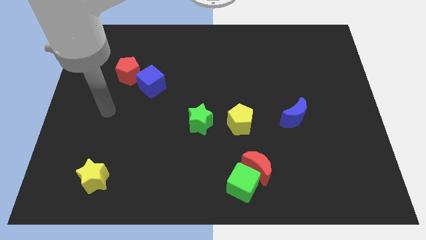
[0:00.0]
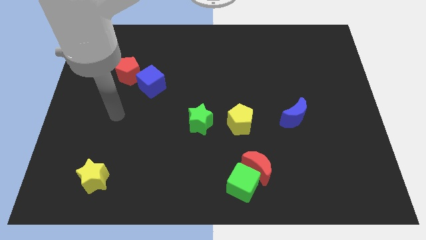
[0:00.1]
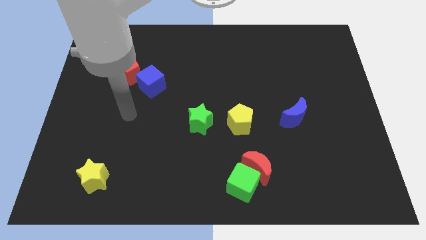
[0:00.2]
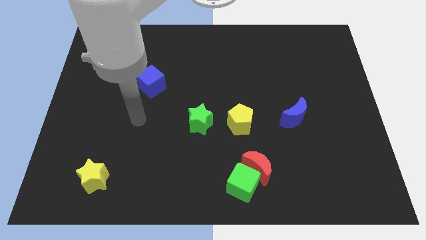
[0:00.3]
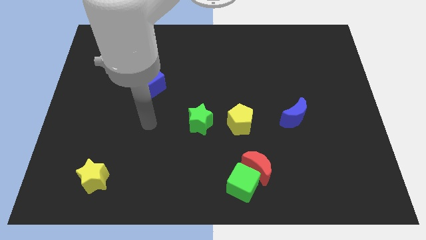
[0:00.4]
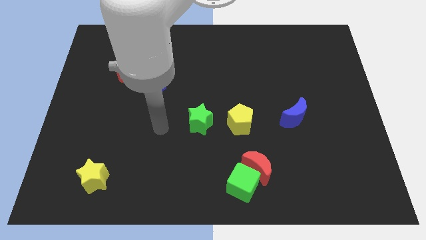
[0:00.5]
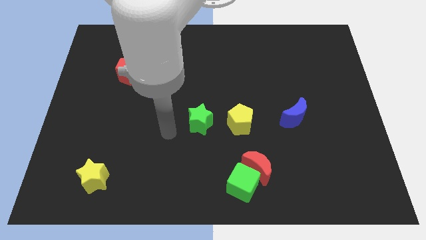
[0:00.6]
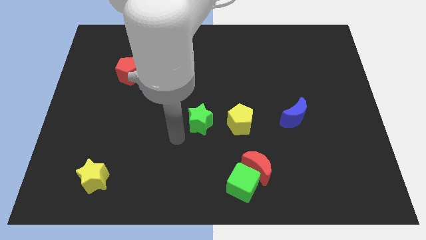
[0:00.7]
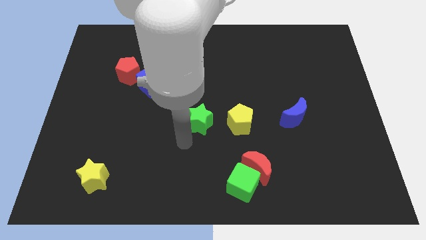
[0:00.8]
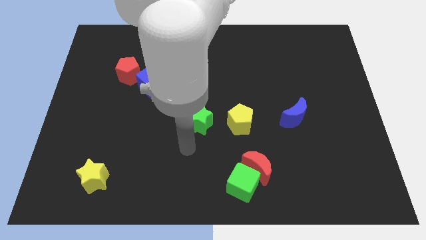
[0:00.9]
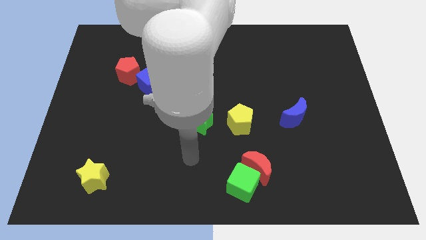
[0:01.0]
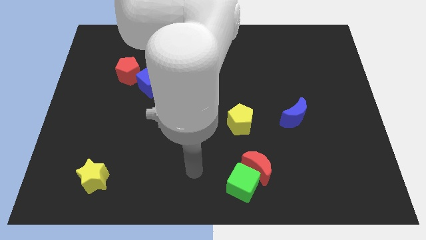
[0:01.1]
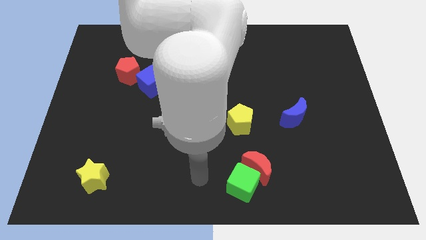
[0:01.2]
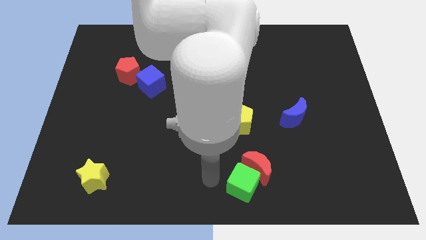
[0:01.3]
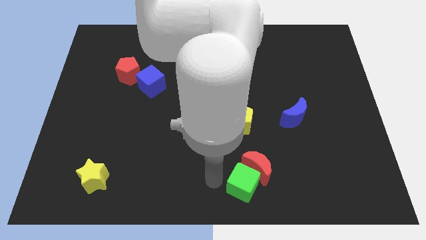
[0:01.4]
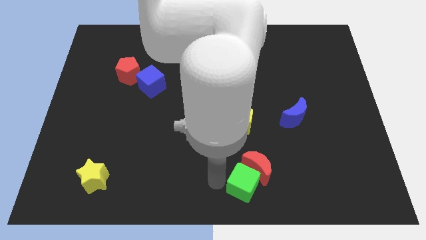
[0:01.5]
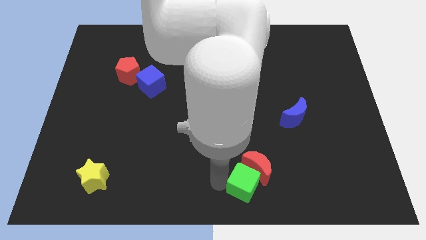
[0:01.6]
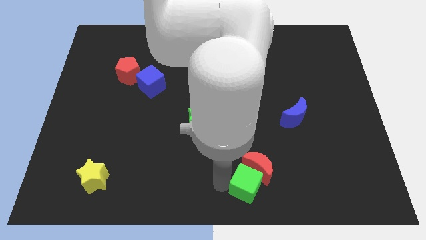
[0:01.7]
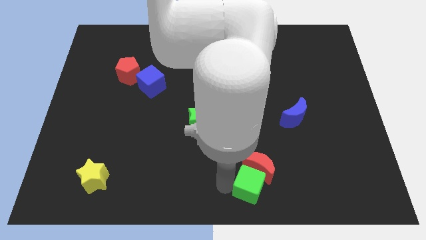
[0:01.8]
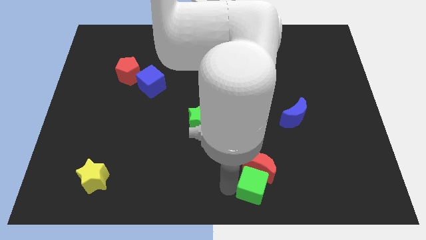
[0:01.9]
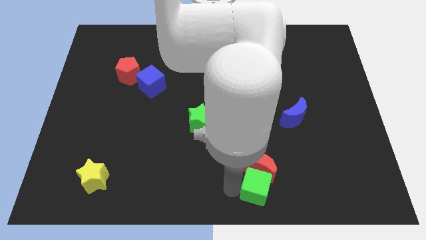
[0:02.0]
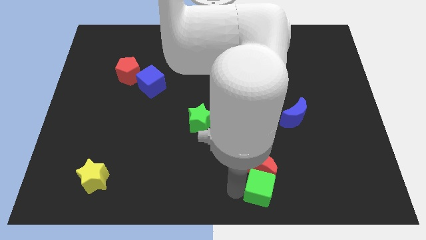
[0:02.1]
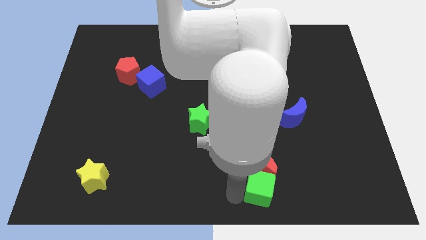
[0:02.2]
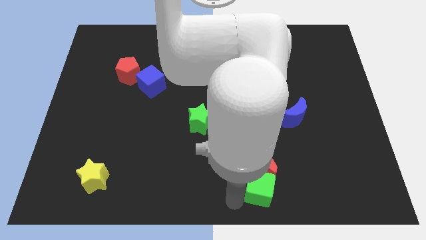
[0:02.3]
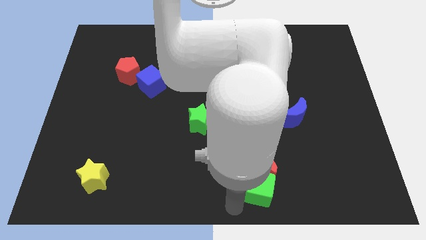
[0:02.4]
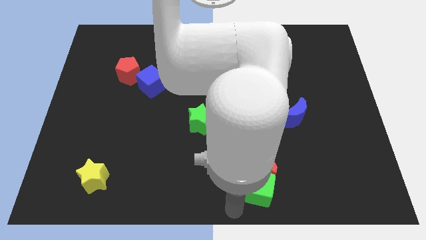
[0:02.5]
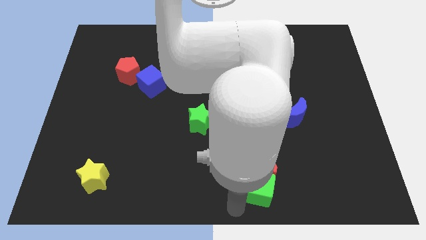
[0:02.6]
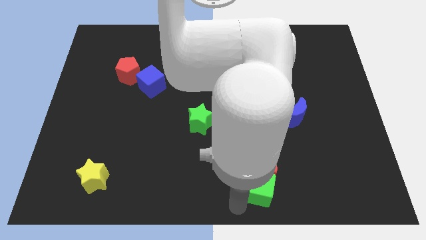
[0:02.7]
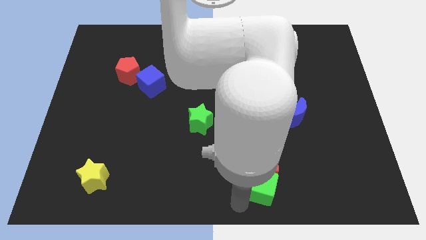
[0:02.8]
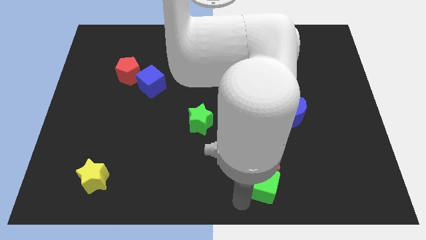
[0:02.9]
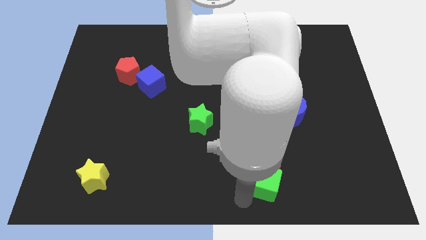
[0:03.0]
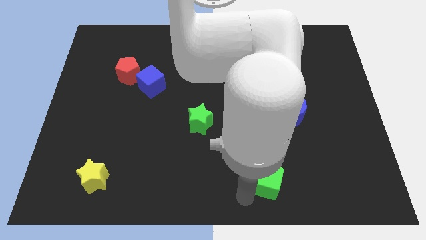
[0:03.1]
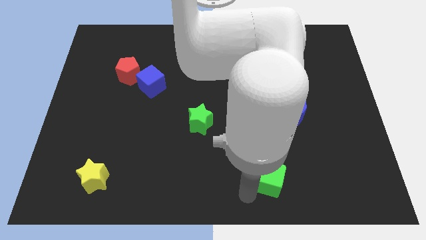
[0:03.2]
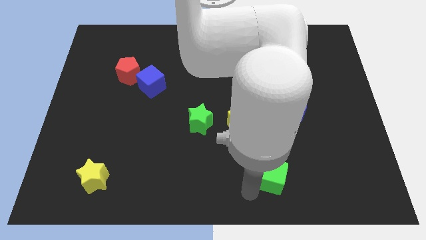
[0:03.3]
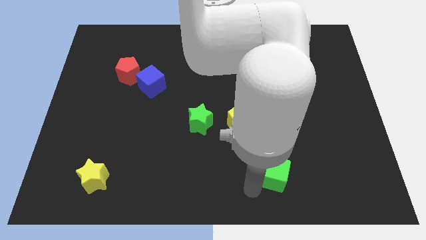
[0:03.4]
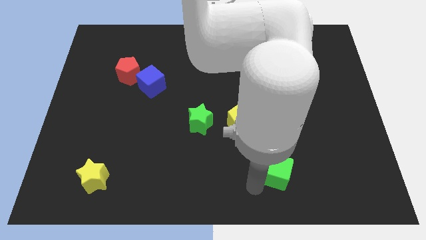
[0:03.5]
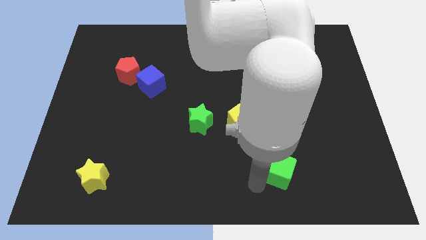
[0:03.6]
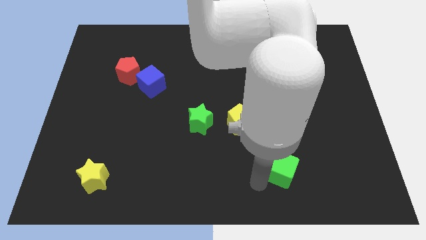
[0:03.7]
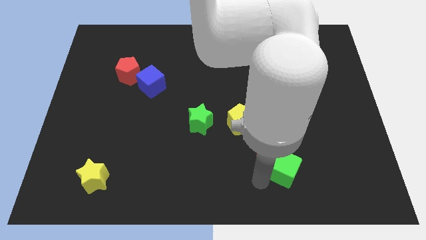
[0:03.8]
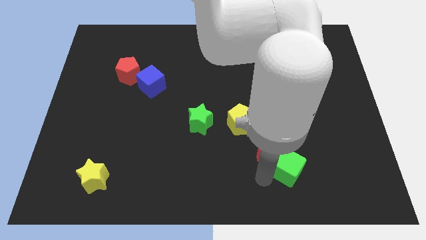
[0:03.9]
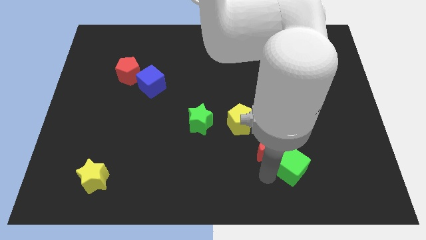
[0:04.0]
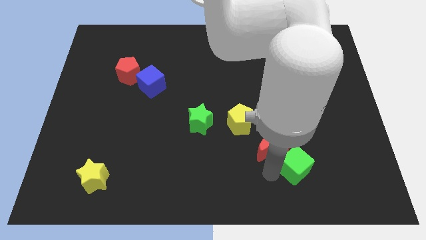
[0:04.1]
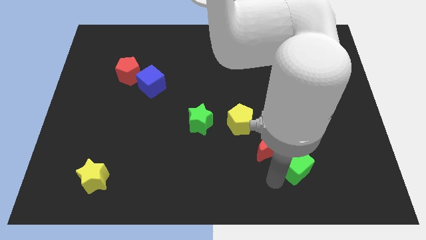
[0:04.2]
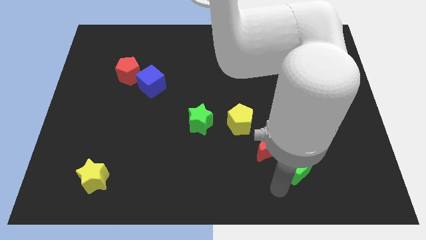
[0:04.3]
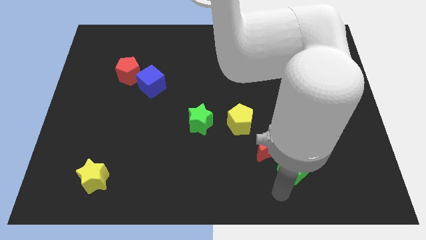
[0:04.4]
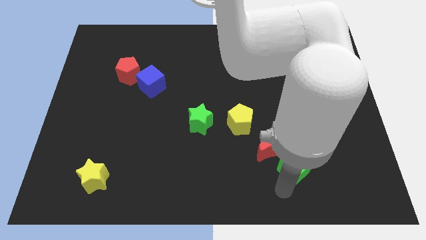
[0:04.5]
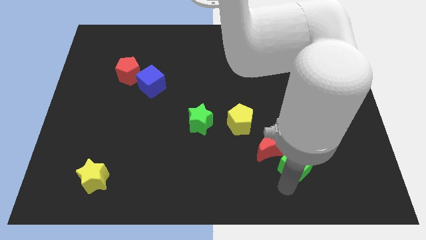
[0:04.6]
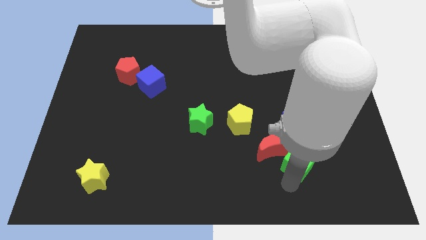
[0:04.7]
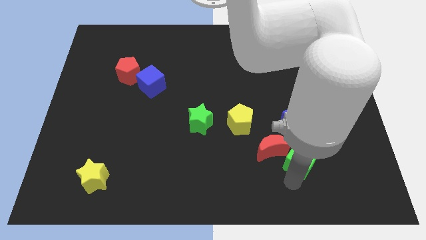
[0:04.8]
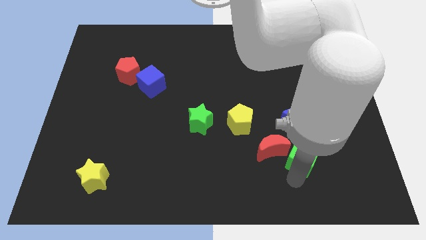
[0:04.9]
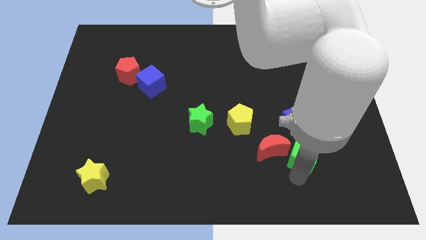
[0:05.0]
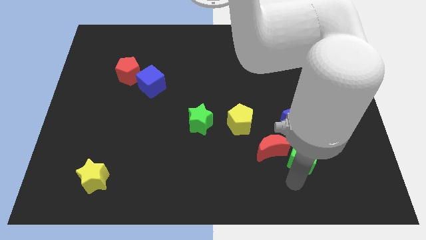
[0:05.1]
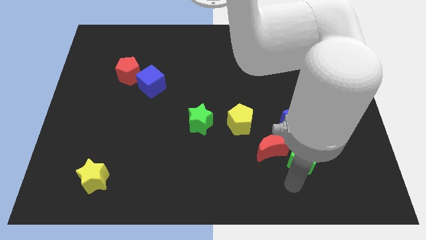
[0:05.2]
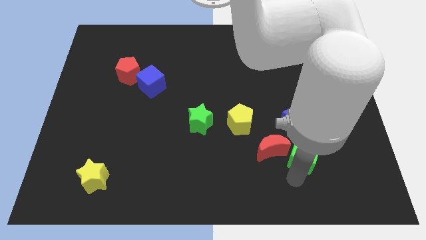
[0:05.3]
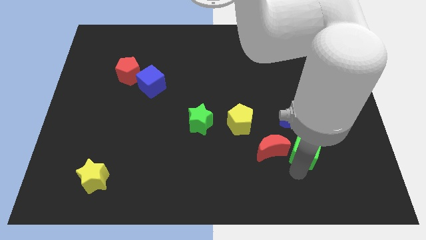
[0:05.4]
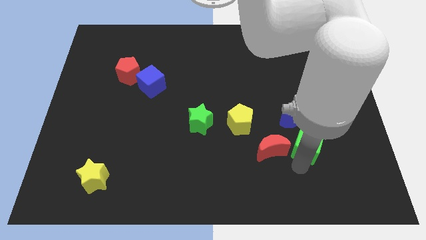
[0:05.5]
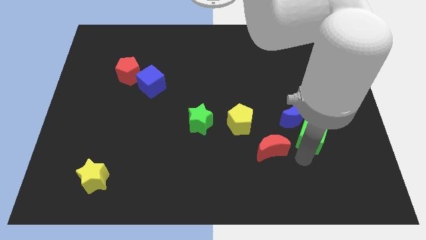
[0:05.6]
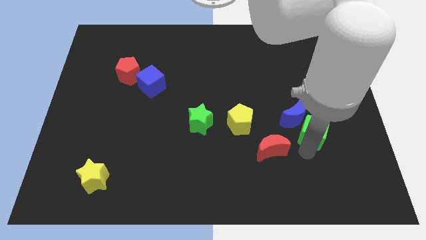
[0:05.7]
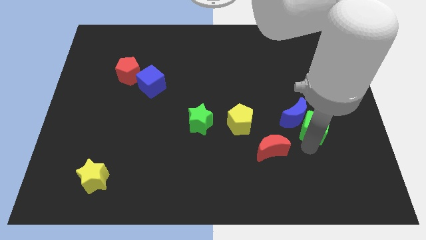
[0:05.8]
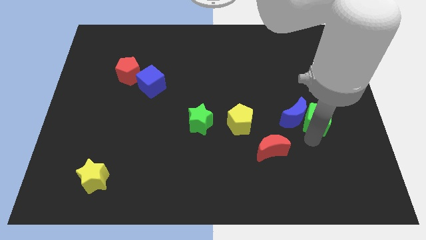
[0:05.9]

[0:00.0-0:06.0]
put the green cube diagonally up and to the right of the blue moon

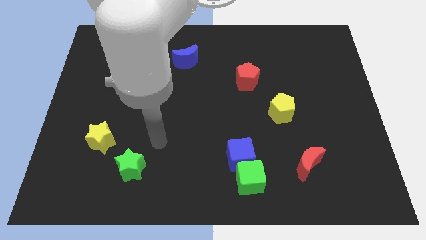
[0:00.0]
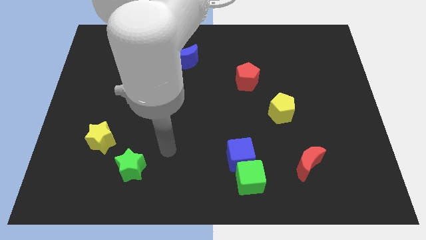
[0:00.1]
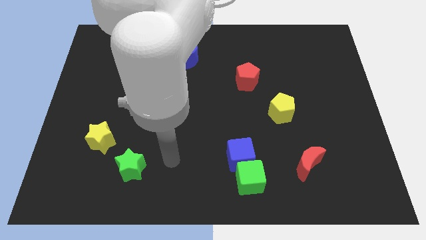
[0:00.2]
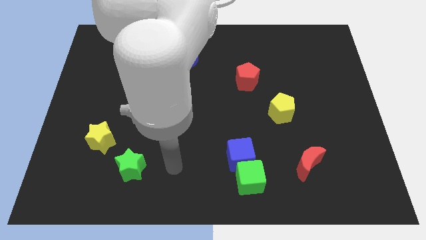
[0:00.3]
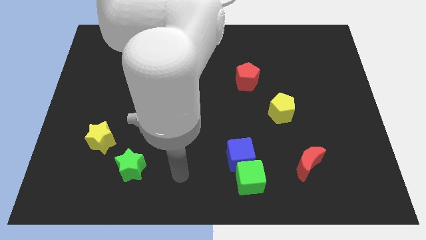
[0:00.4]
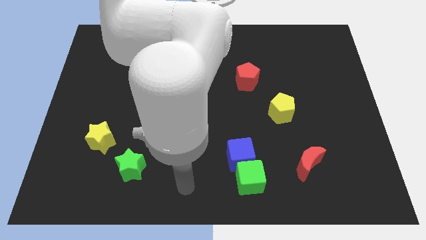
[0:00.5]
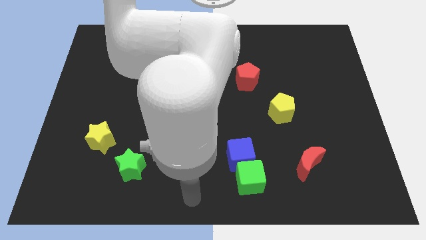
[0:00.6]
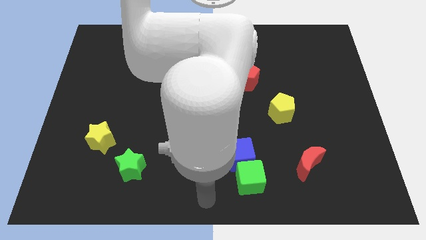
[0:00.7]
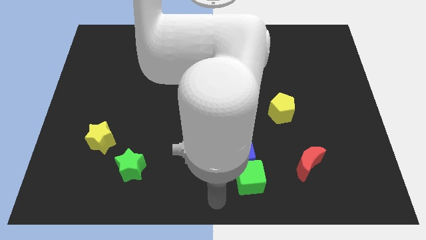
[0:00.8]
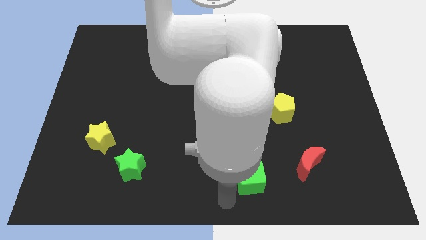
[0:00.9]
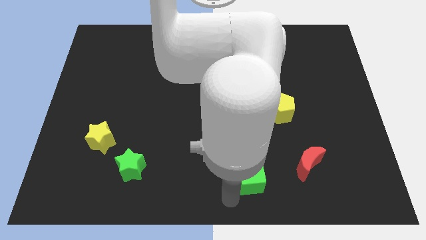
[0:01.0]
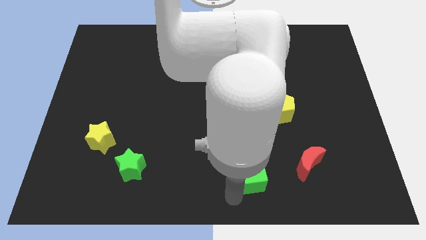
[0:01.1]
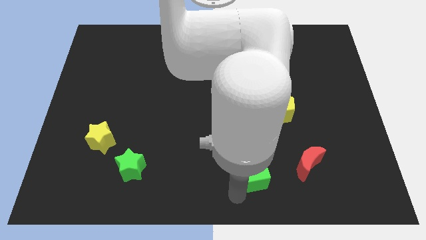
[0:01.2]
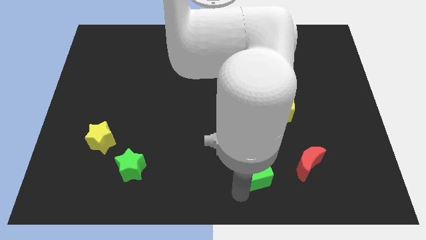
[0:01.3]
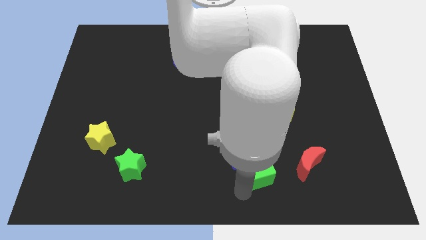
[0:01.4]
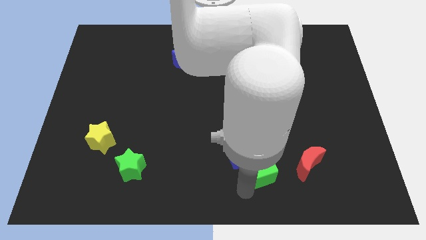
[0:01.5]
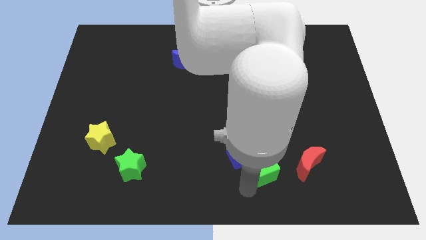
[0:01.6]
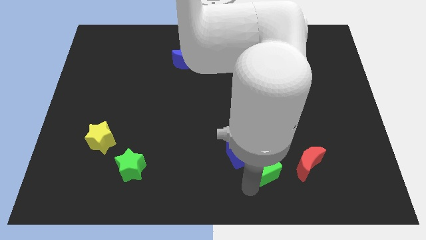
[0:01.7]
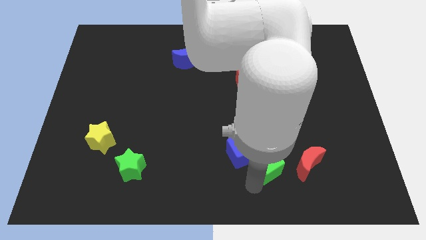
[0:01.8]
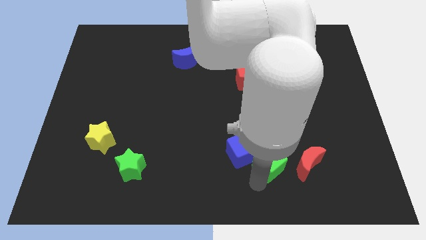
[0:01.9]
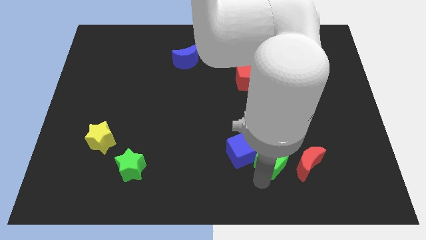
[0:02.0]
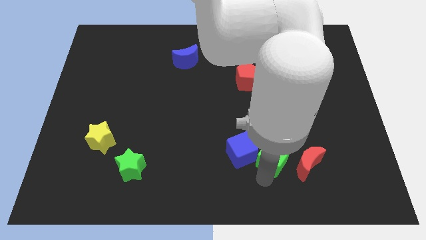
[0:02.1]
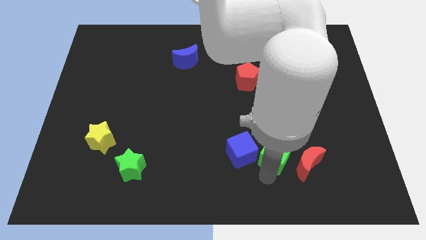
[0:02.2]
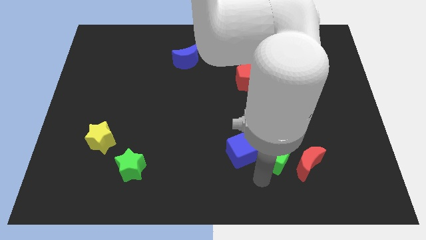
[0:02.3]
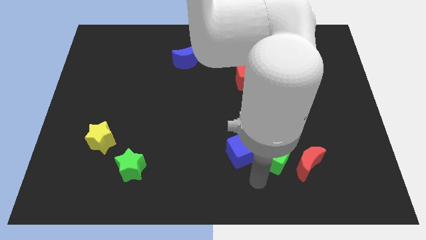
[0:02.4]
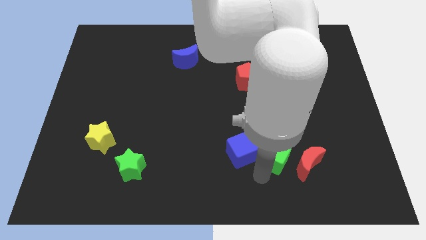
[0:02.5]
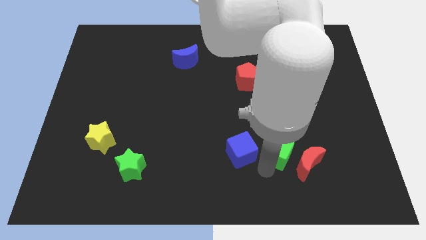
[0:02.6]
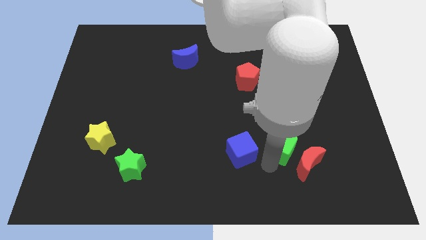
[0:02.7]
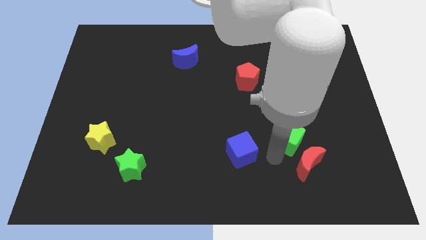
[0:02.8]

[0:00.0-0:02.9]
push the green cube above the red moon
